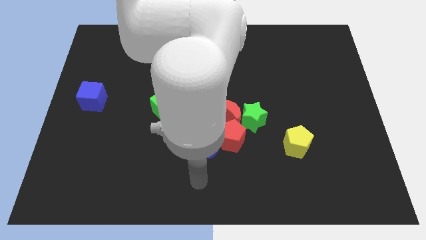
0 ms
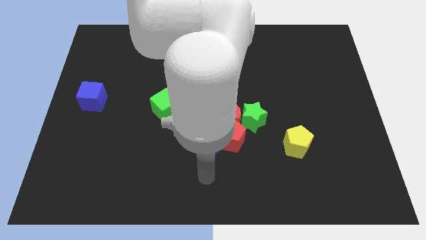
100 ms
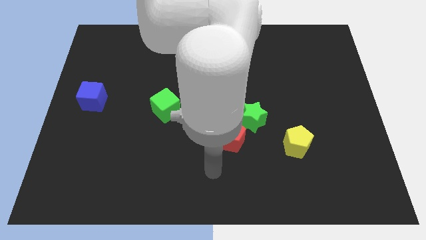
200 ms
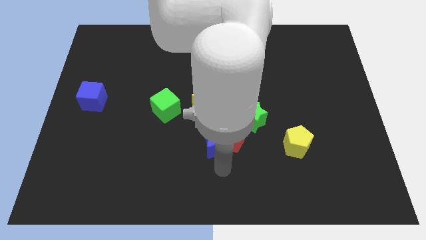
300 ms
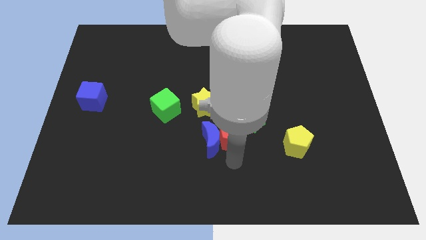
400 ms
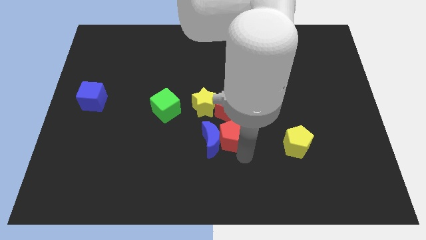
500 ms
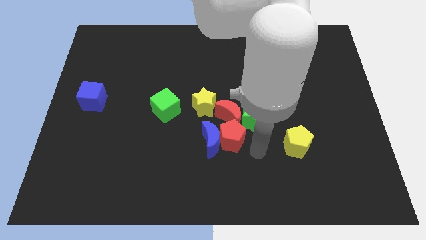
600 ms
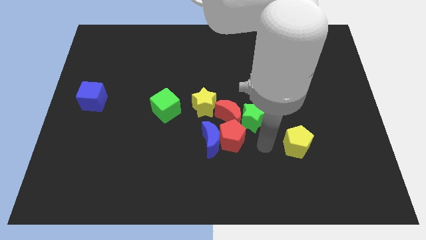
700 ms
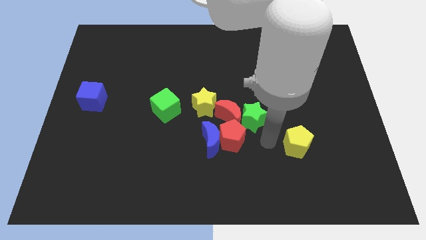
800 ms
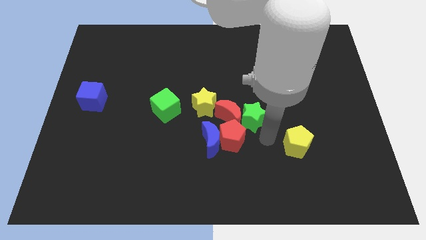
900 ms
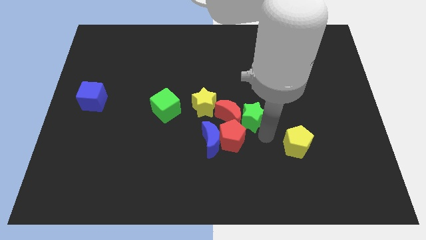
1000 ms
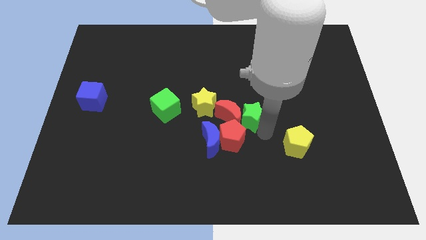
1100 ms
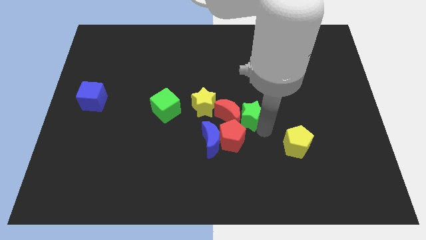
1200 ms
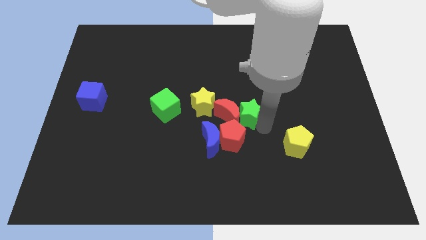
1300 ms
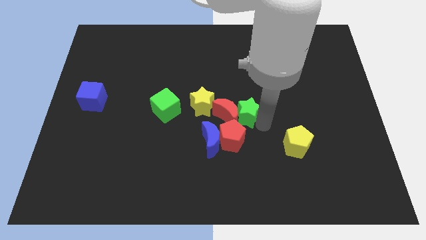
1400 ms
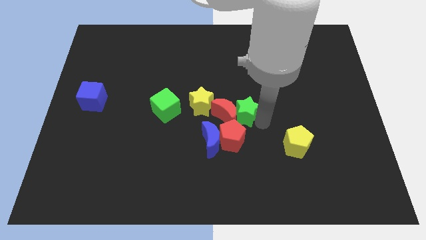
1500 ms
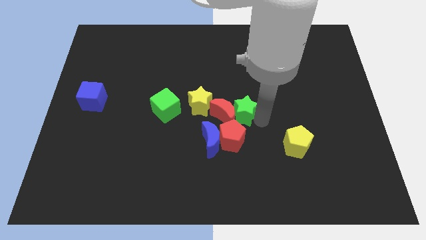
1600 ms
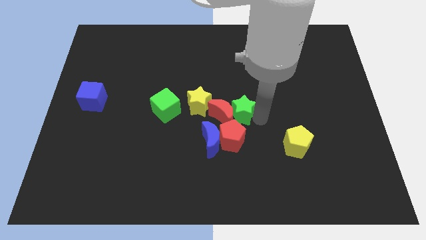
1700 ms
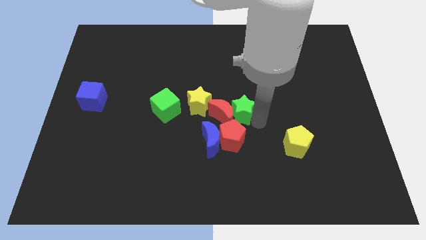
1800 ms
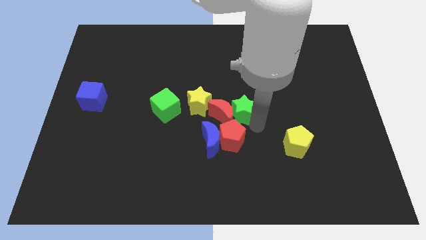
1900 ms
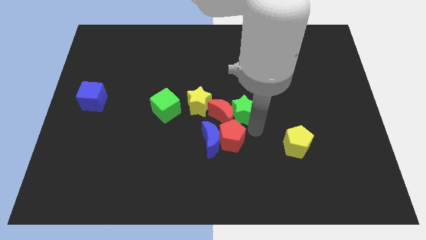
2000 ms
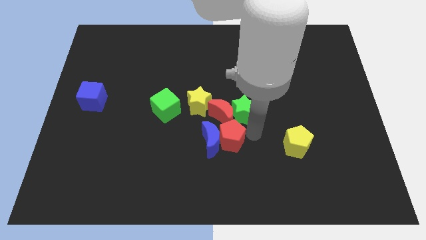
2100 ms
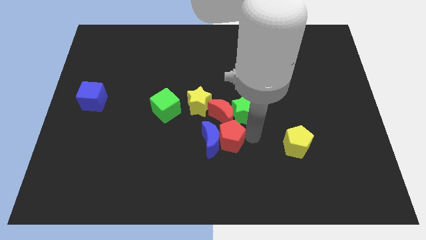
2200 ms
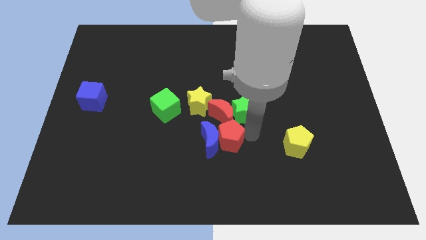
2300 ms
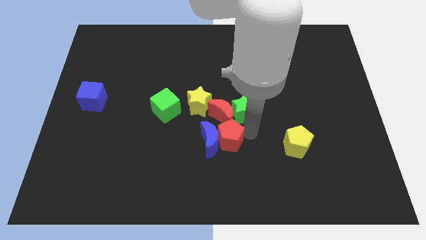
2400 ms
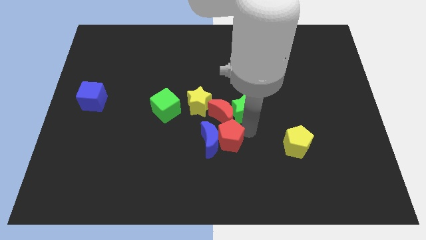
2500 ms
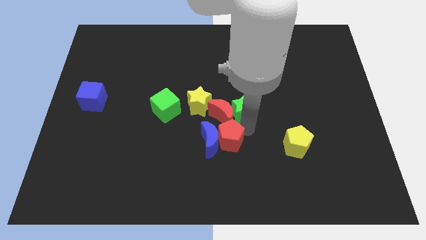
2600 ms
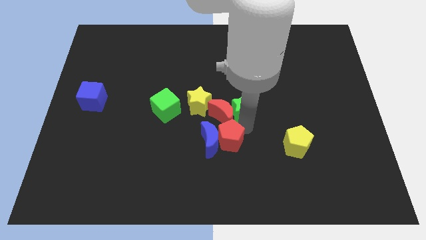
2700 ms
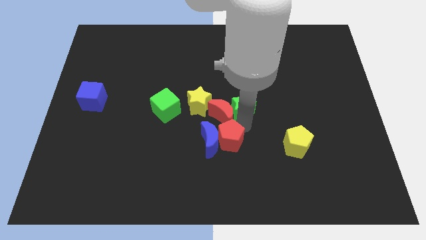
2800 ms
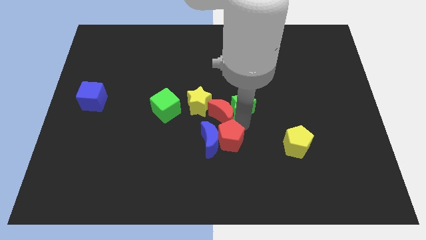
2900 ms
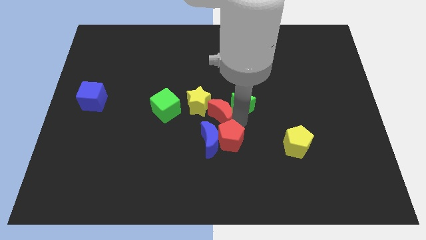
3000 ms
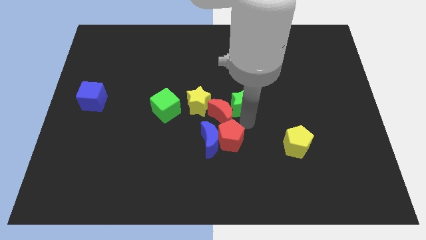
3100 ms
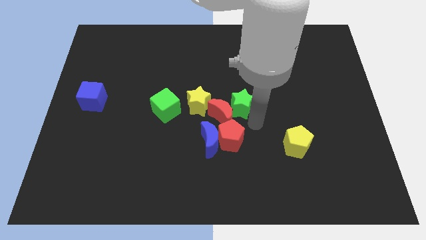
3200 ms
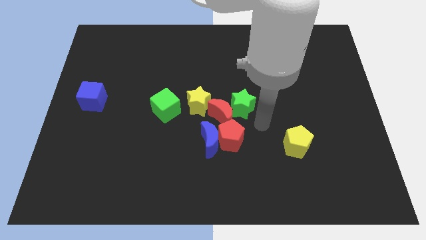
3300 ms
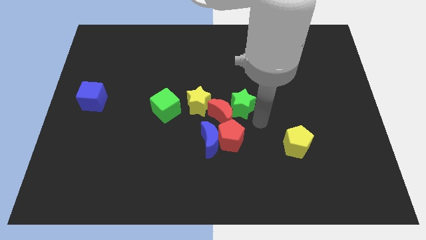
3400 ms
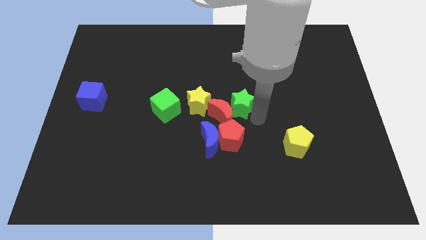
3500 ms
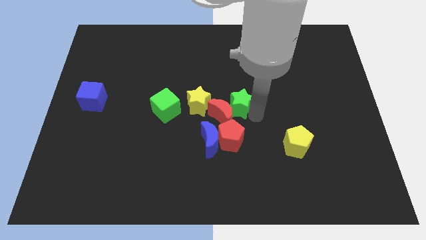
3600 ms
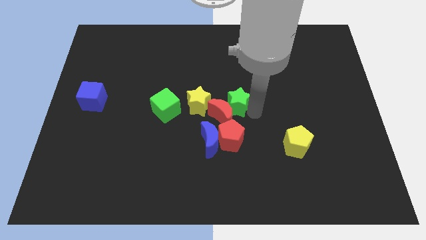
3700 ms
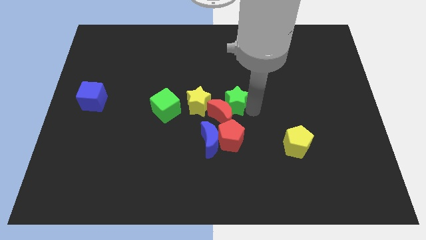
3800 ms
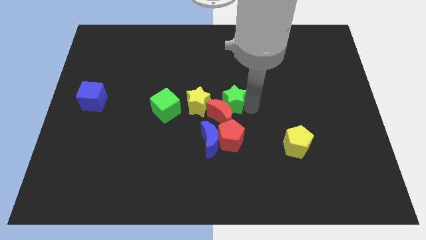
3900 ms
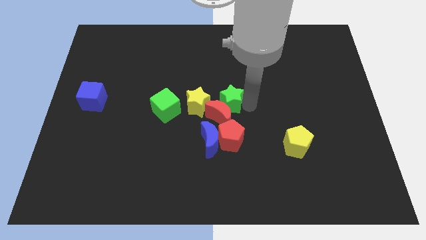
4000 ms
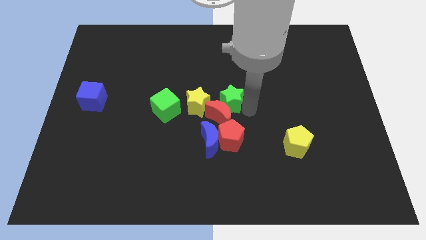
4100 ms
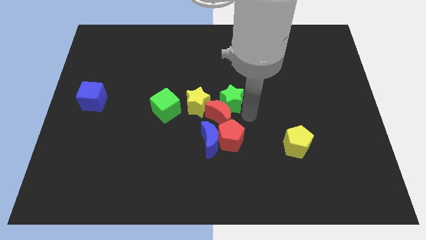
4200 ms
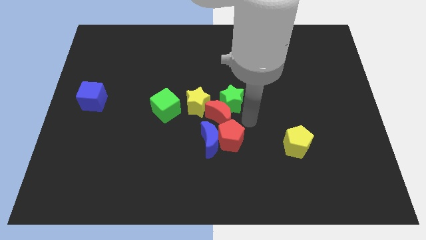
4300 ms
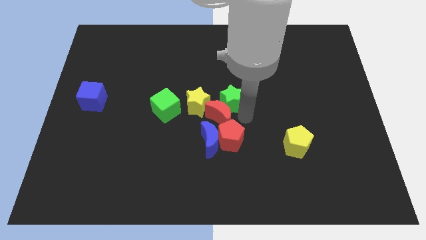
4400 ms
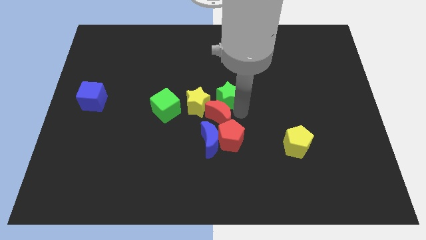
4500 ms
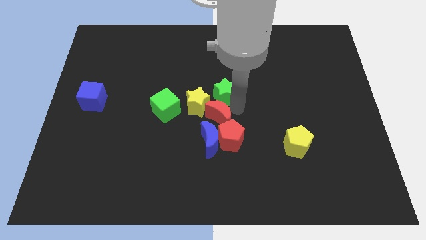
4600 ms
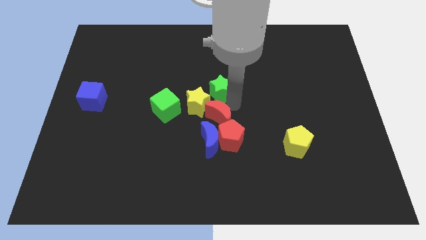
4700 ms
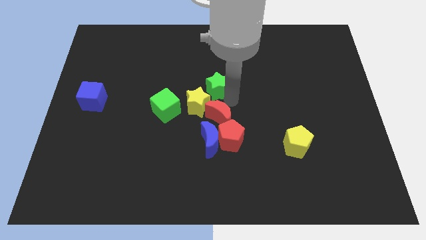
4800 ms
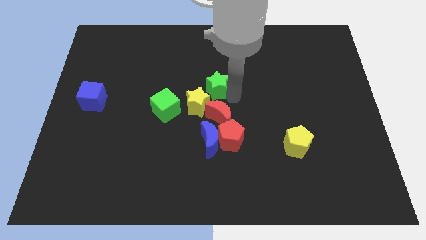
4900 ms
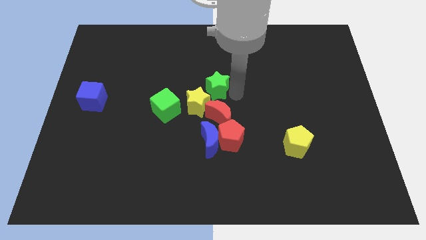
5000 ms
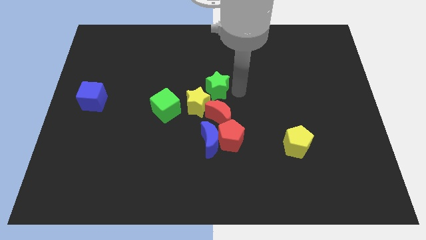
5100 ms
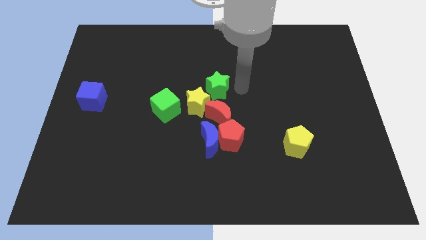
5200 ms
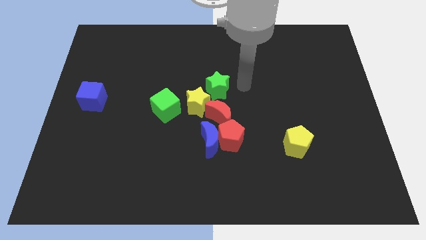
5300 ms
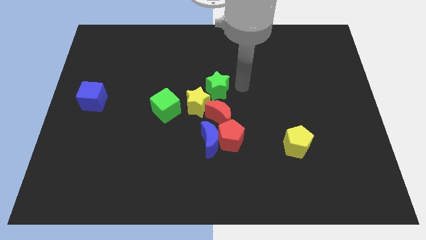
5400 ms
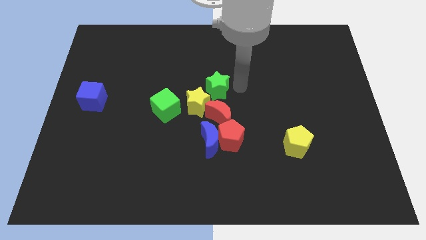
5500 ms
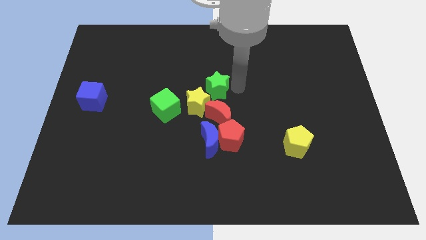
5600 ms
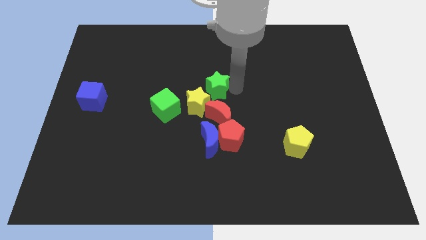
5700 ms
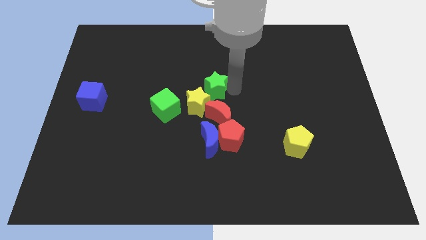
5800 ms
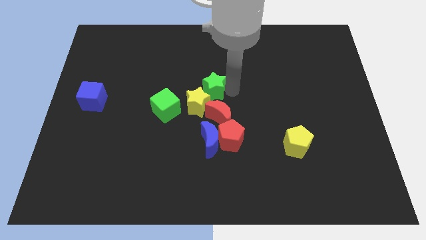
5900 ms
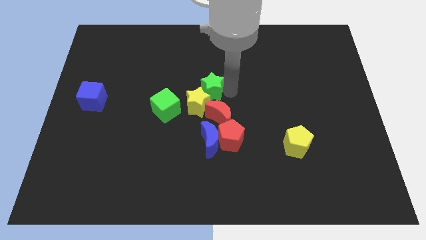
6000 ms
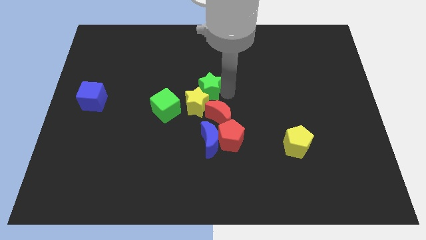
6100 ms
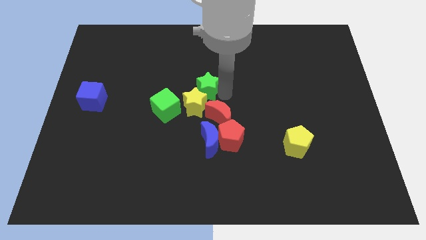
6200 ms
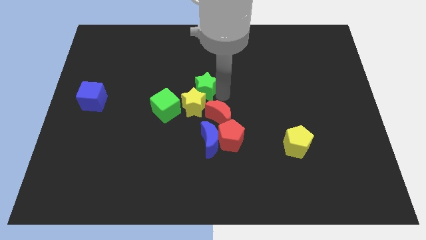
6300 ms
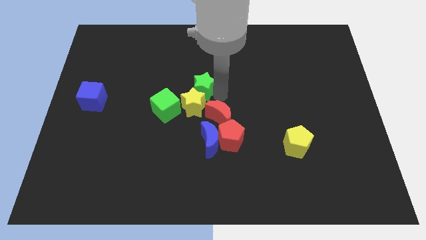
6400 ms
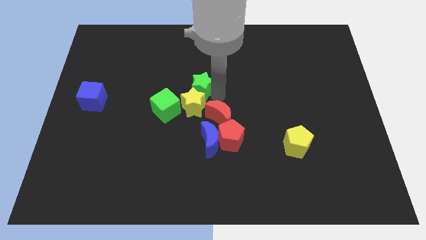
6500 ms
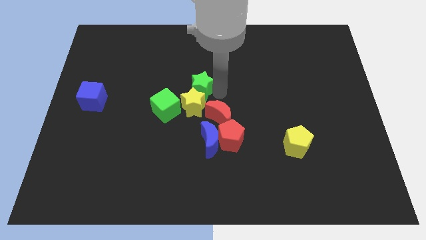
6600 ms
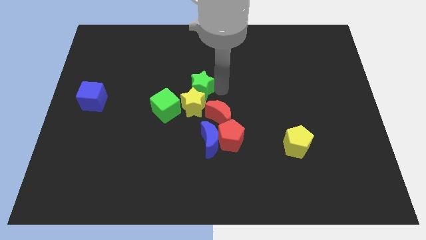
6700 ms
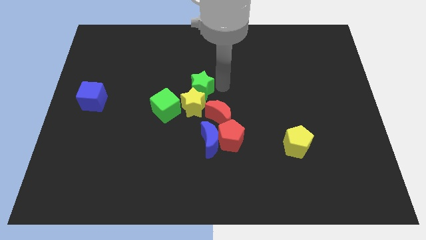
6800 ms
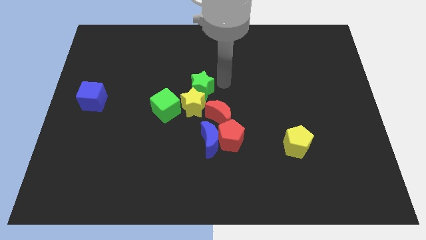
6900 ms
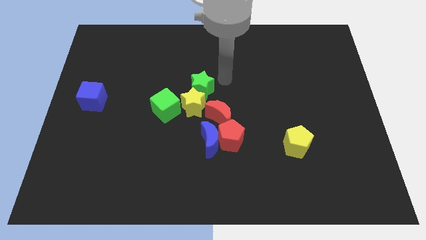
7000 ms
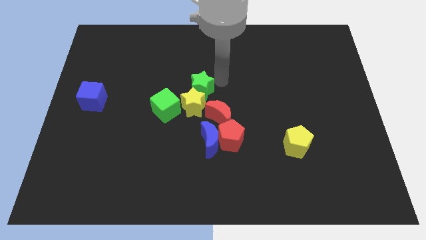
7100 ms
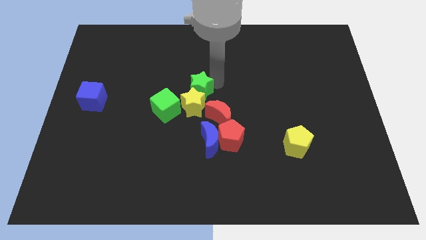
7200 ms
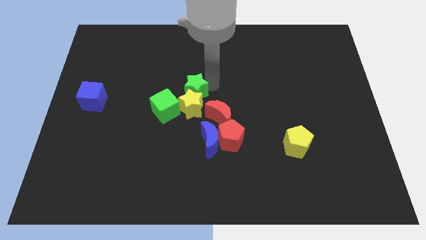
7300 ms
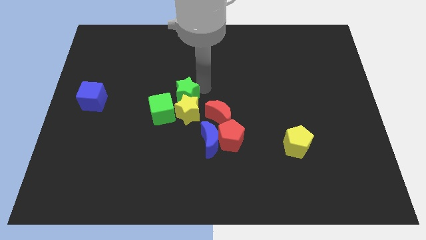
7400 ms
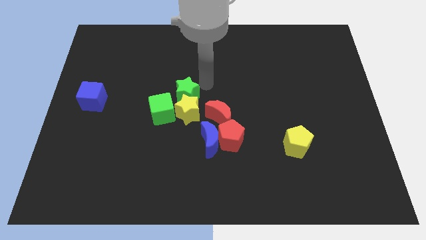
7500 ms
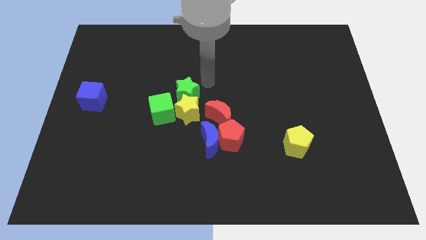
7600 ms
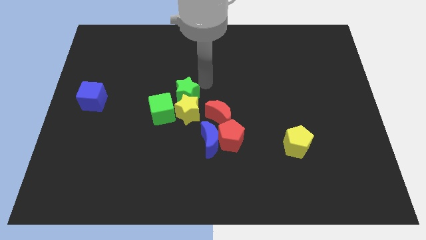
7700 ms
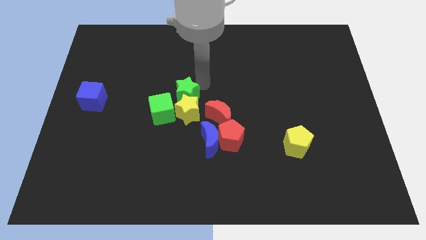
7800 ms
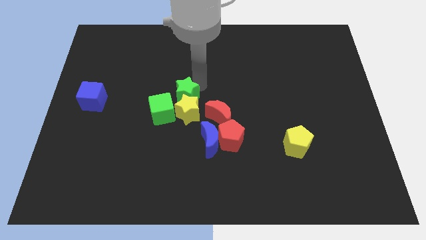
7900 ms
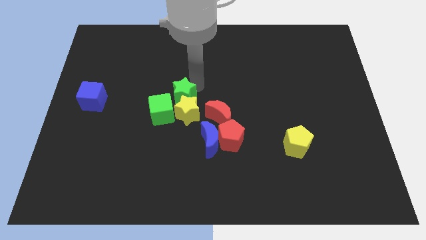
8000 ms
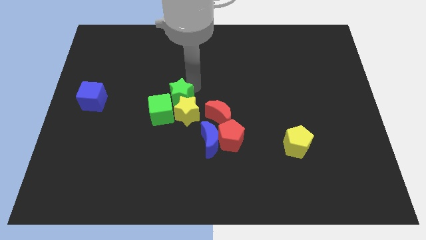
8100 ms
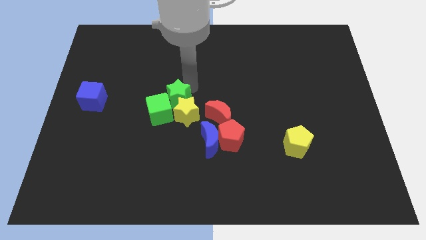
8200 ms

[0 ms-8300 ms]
put the green star next to the green cube
